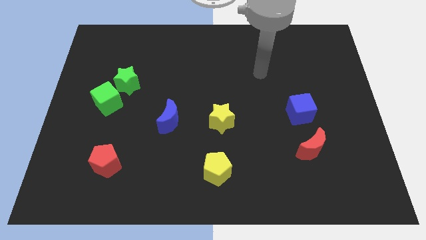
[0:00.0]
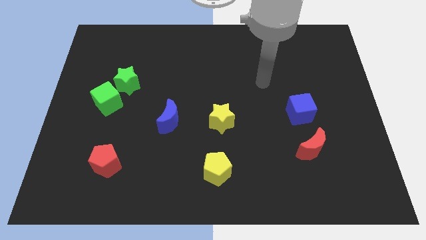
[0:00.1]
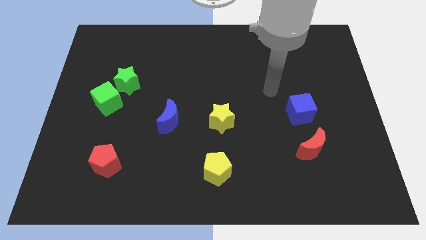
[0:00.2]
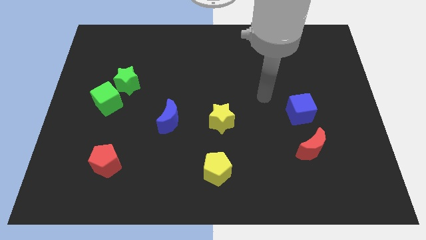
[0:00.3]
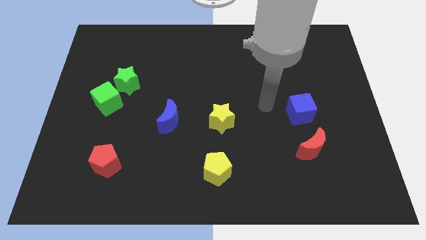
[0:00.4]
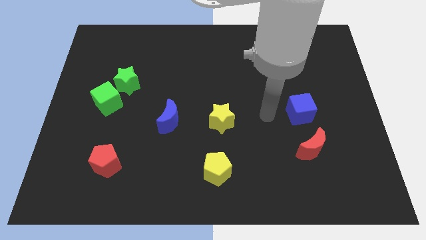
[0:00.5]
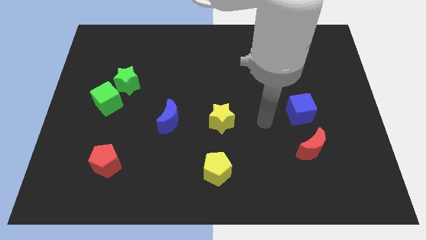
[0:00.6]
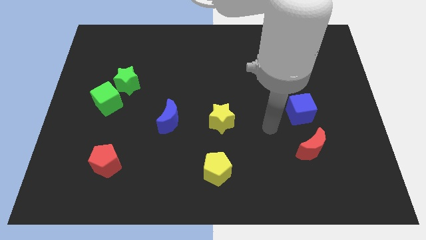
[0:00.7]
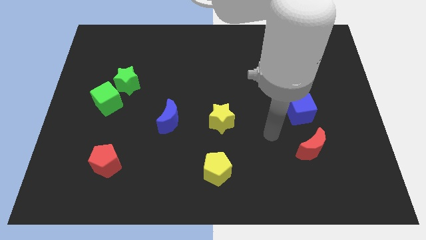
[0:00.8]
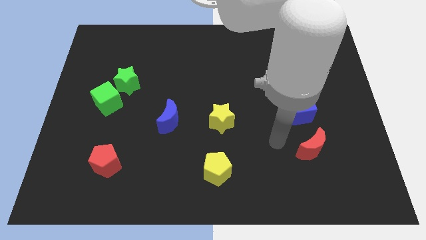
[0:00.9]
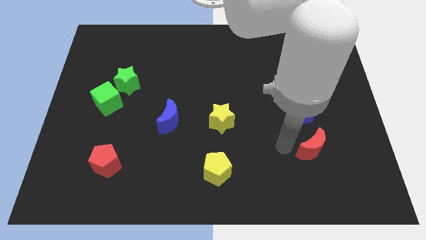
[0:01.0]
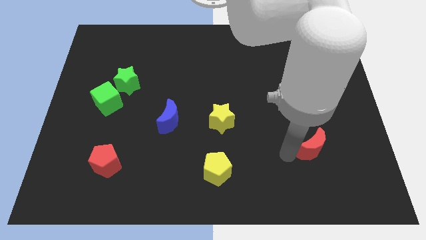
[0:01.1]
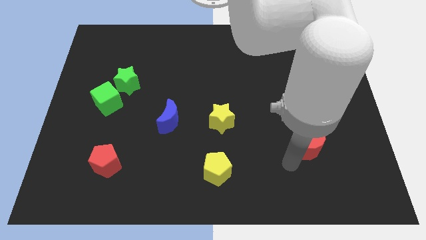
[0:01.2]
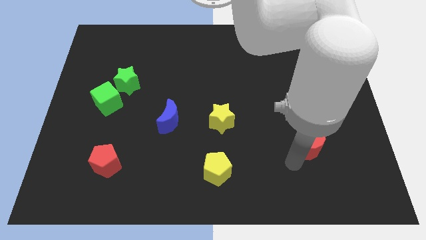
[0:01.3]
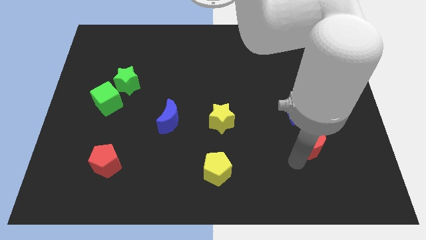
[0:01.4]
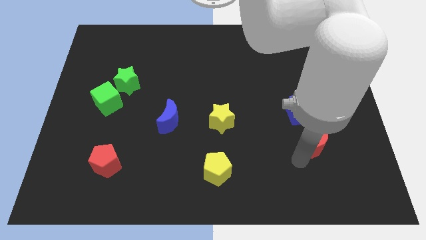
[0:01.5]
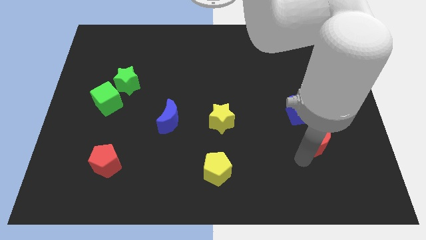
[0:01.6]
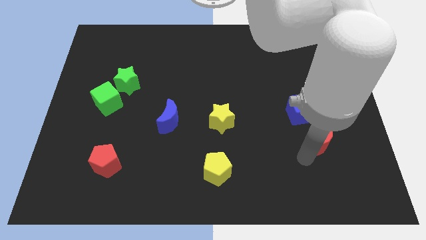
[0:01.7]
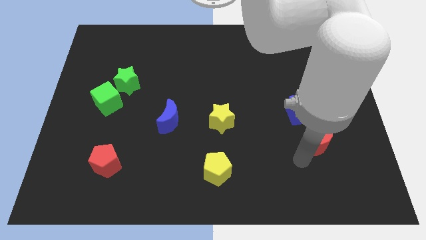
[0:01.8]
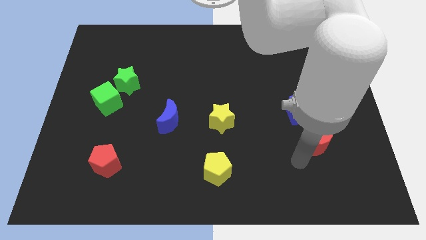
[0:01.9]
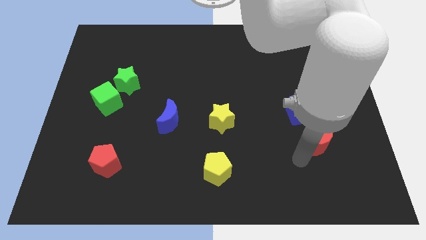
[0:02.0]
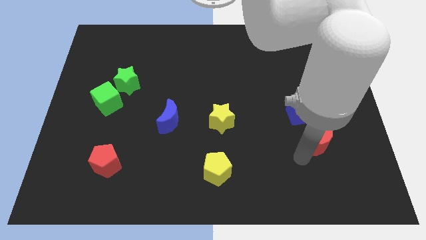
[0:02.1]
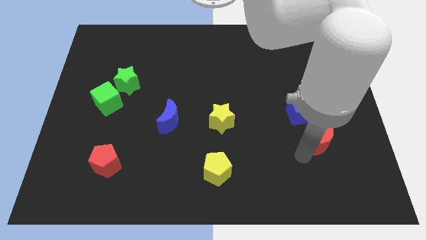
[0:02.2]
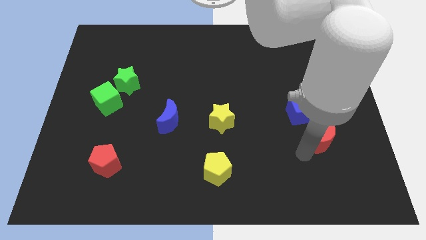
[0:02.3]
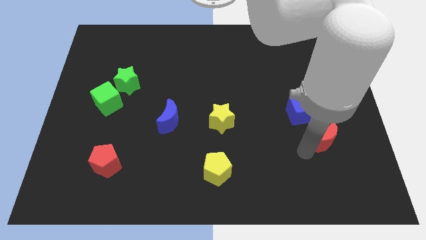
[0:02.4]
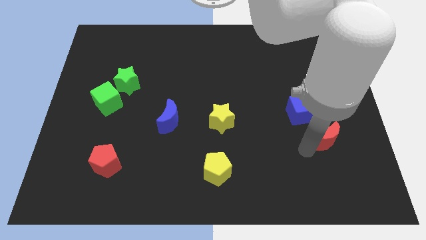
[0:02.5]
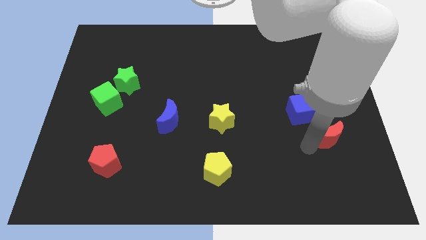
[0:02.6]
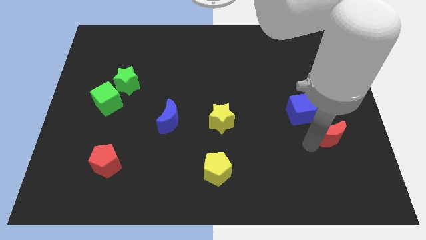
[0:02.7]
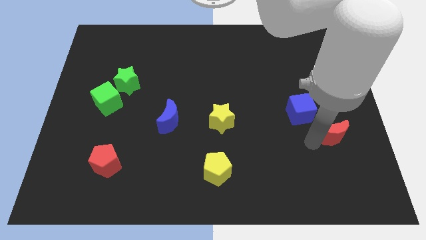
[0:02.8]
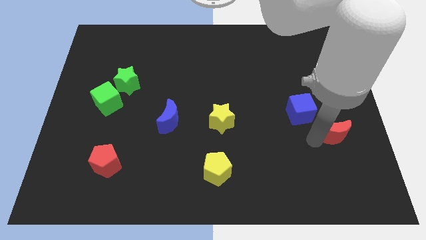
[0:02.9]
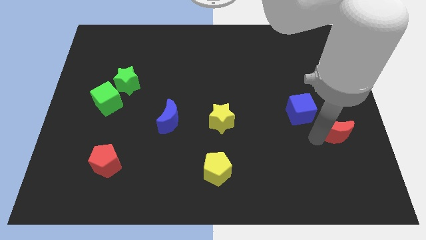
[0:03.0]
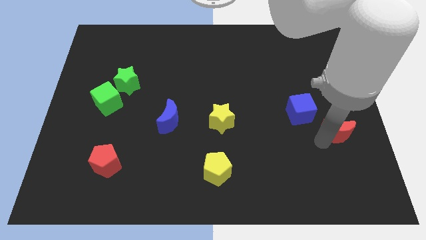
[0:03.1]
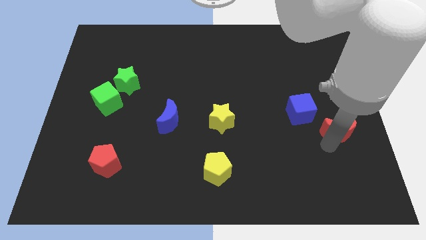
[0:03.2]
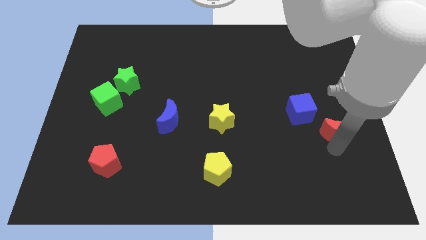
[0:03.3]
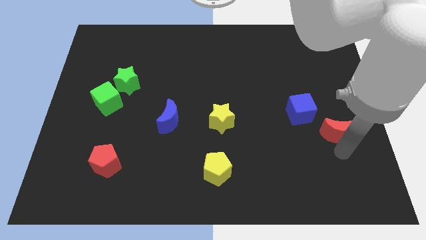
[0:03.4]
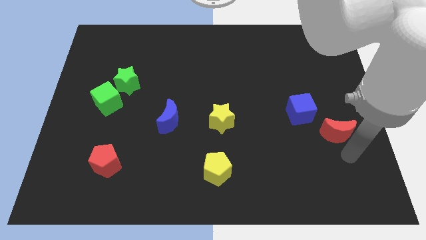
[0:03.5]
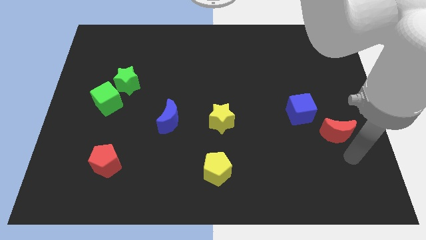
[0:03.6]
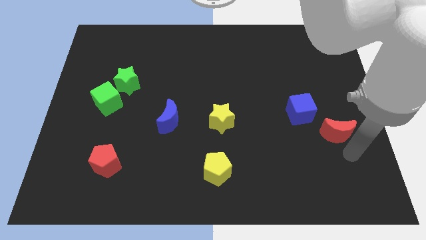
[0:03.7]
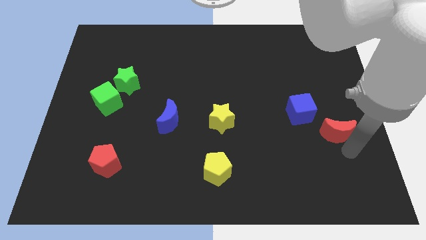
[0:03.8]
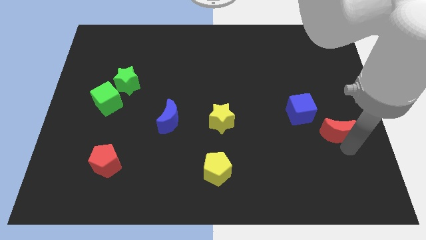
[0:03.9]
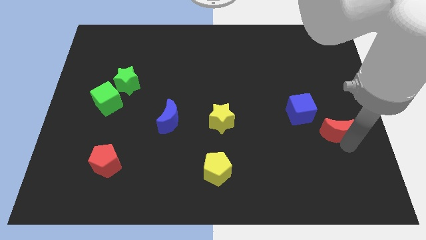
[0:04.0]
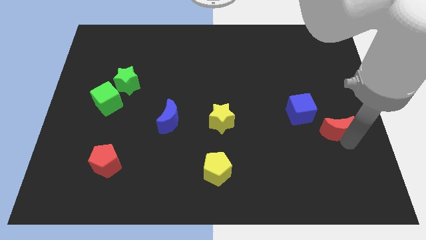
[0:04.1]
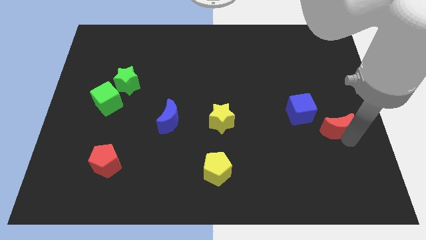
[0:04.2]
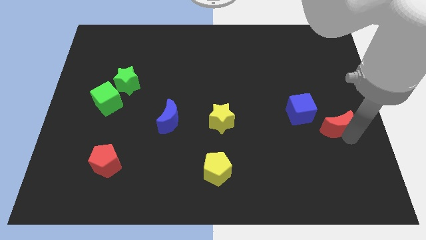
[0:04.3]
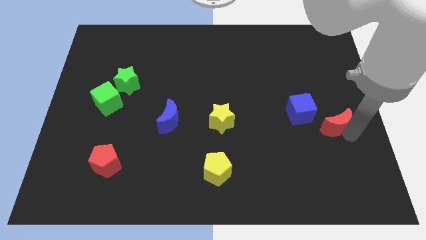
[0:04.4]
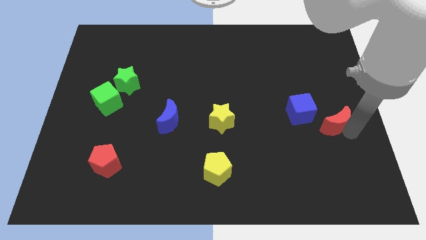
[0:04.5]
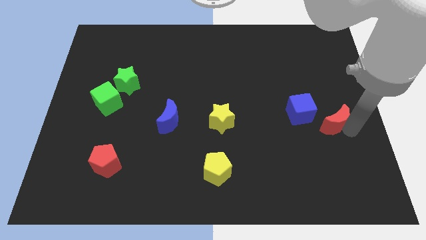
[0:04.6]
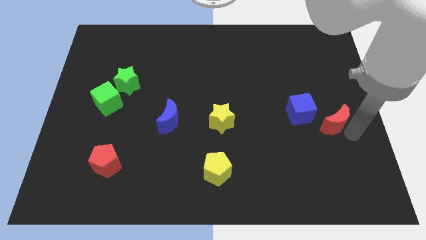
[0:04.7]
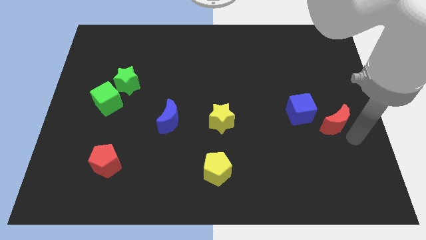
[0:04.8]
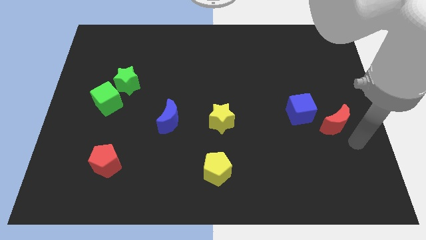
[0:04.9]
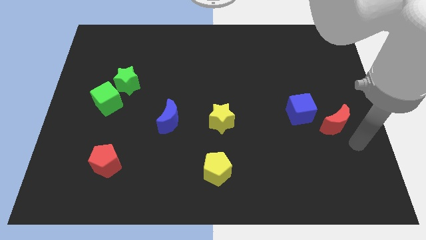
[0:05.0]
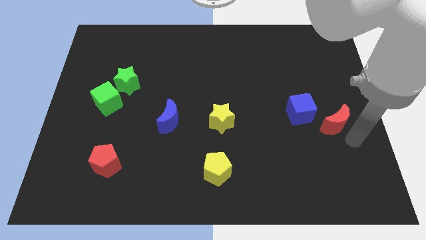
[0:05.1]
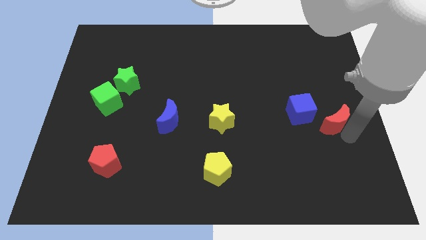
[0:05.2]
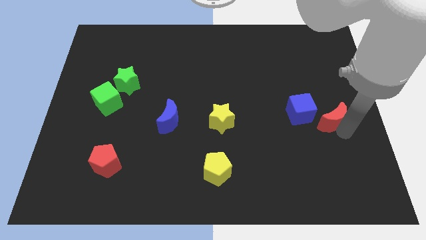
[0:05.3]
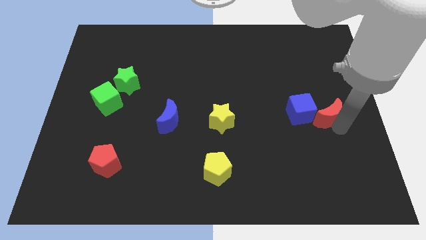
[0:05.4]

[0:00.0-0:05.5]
slightly move the red moon up

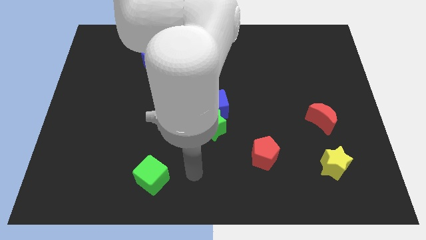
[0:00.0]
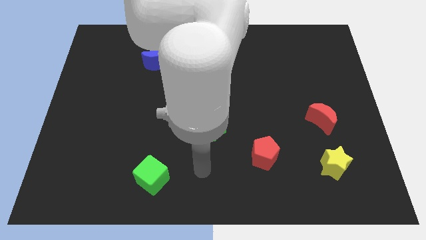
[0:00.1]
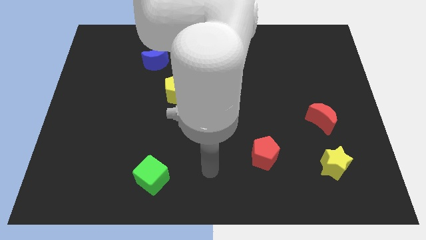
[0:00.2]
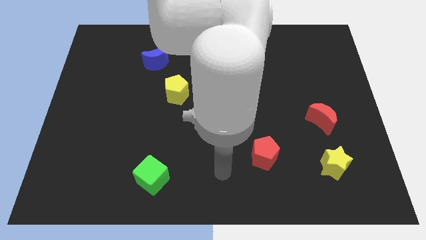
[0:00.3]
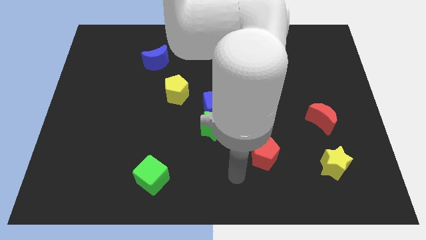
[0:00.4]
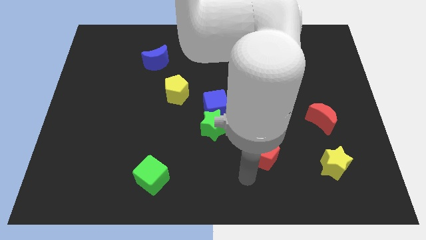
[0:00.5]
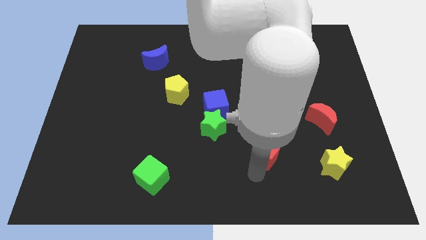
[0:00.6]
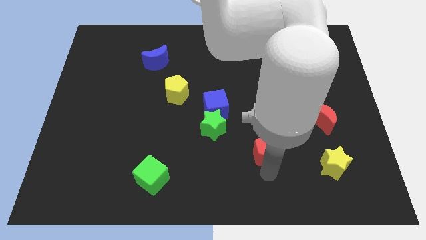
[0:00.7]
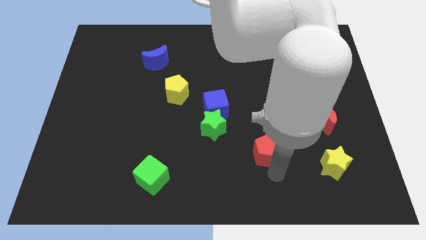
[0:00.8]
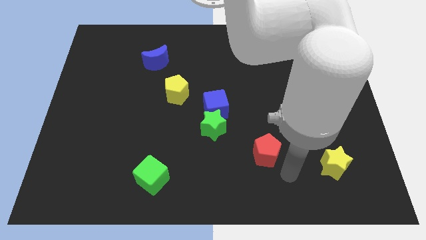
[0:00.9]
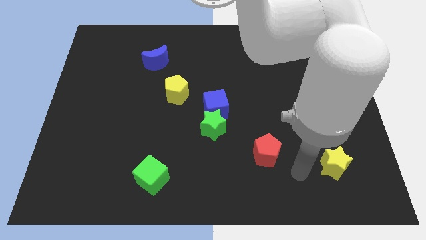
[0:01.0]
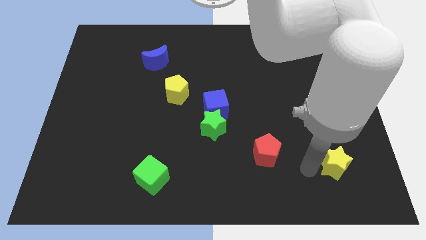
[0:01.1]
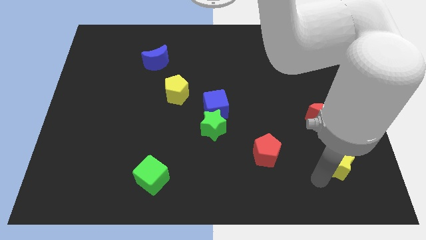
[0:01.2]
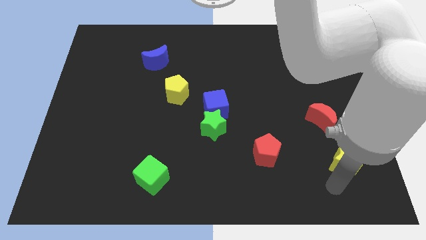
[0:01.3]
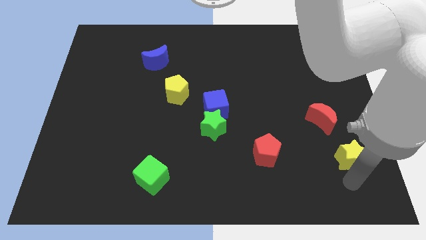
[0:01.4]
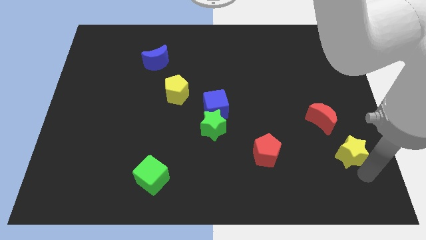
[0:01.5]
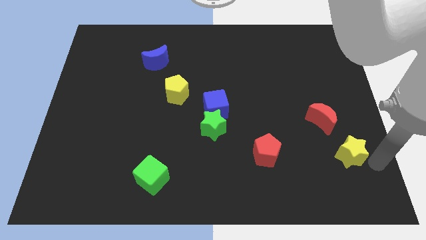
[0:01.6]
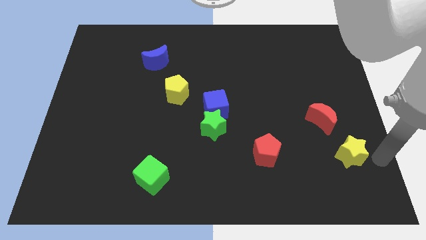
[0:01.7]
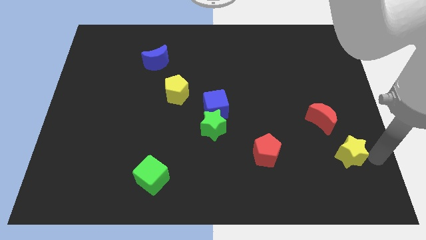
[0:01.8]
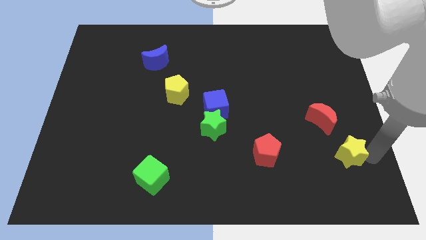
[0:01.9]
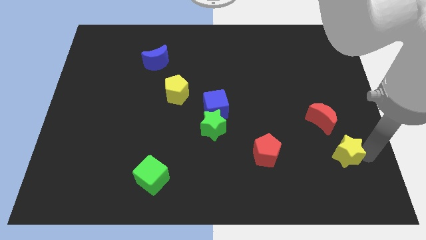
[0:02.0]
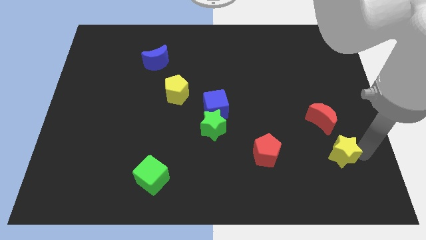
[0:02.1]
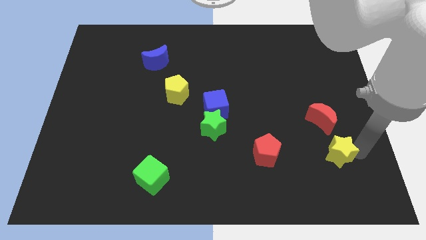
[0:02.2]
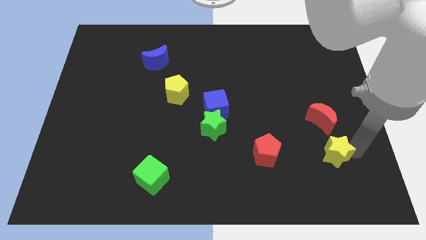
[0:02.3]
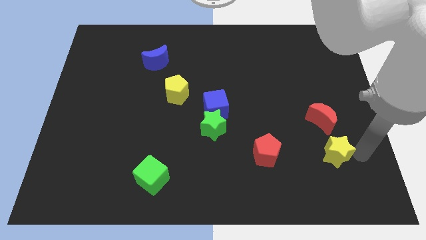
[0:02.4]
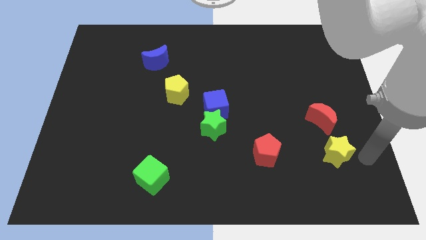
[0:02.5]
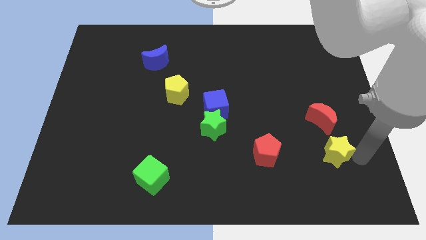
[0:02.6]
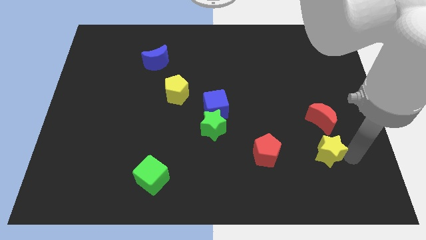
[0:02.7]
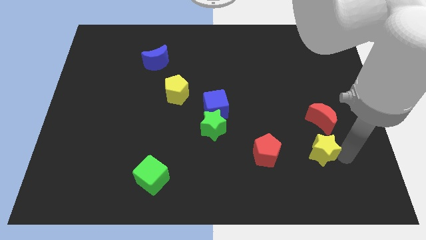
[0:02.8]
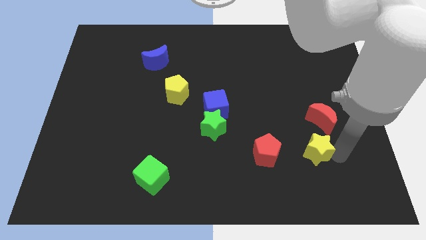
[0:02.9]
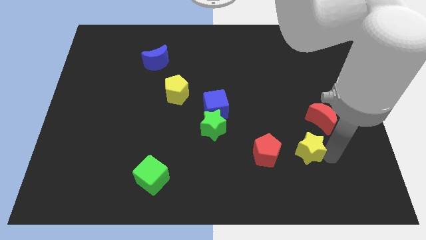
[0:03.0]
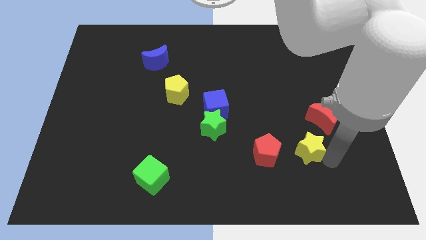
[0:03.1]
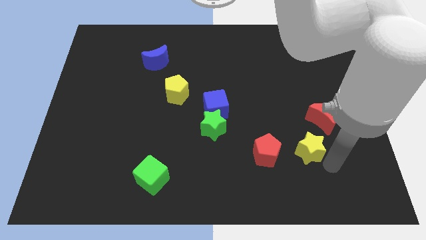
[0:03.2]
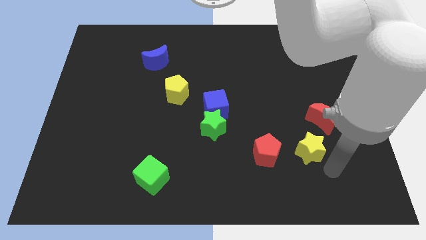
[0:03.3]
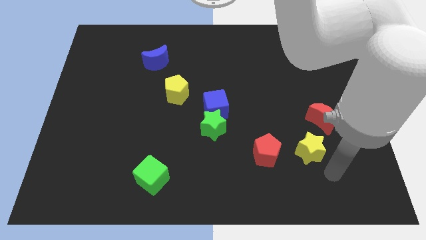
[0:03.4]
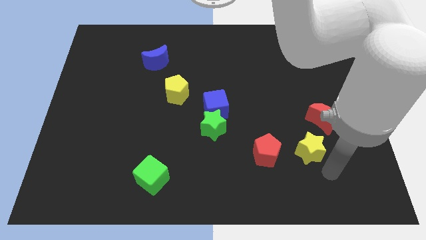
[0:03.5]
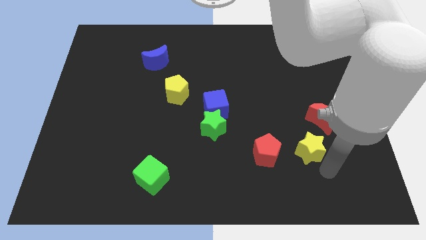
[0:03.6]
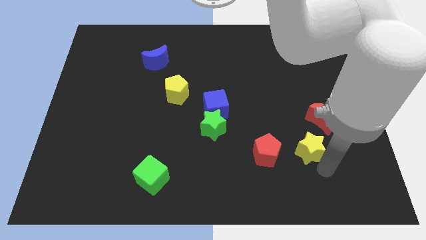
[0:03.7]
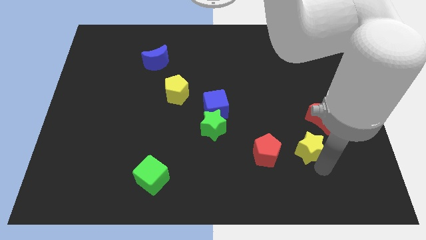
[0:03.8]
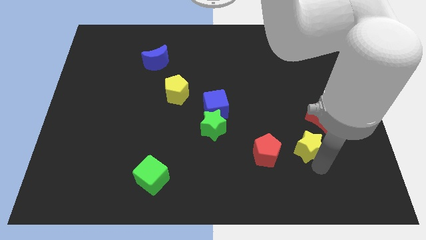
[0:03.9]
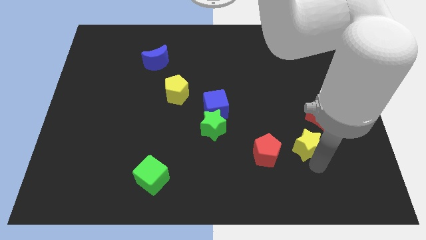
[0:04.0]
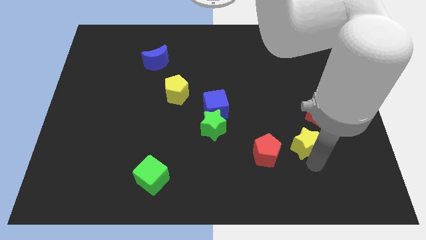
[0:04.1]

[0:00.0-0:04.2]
move the yellow star upwards and left diagonally slightly
